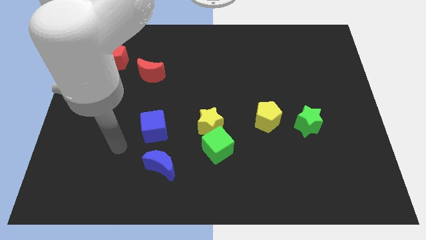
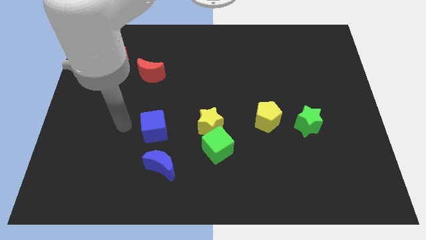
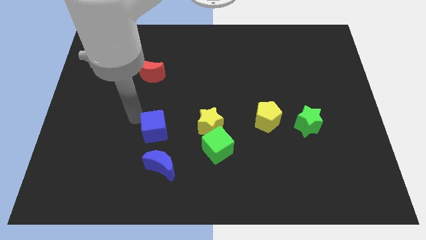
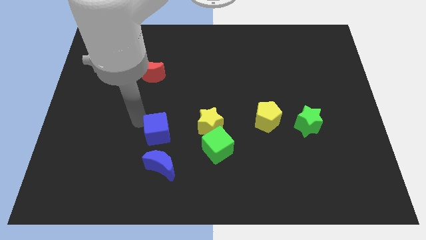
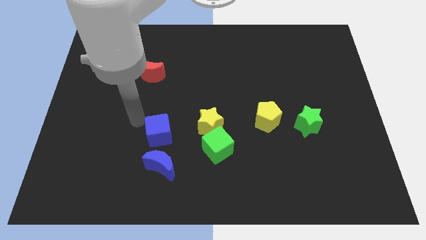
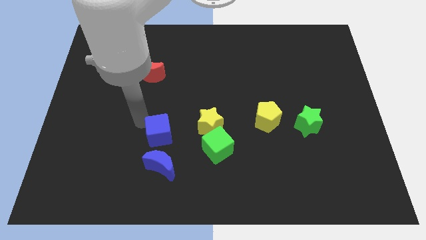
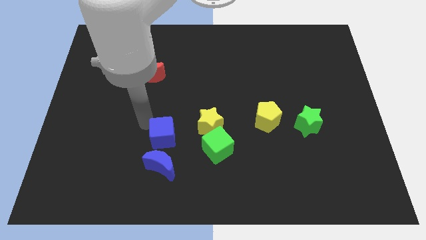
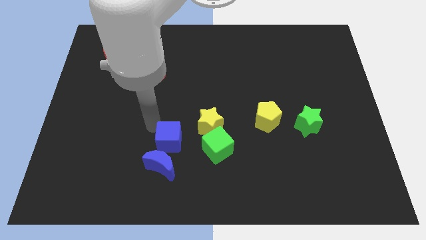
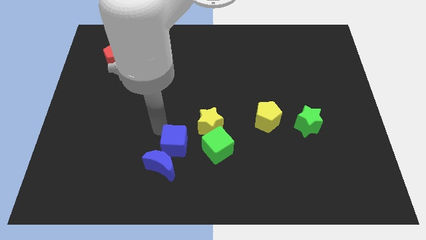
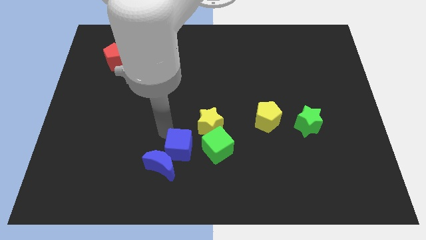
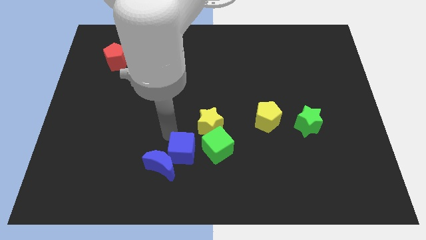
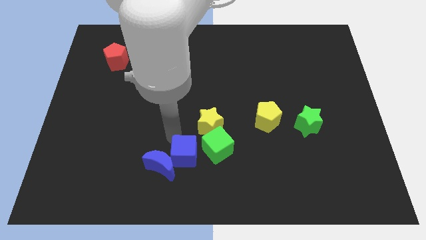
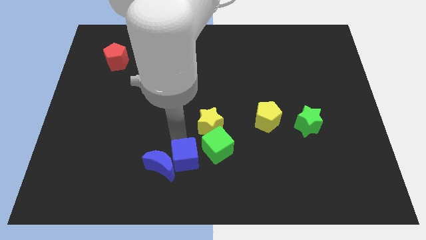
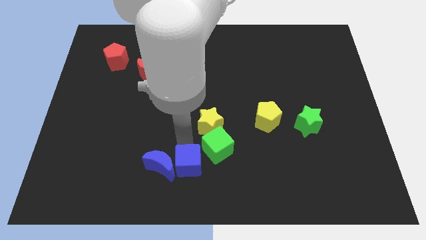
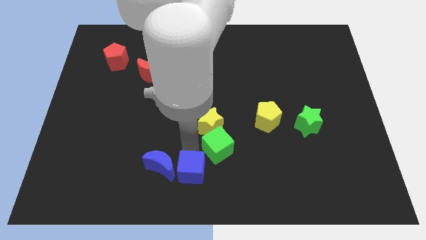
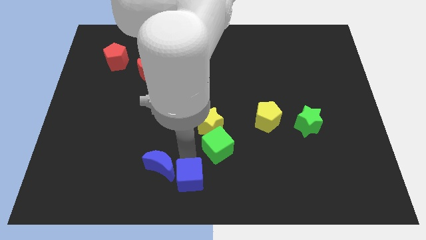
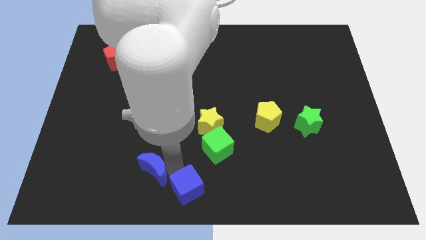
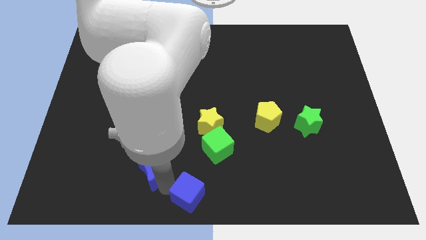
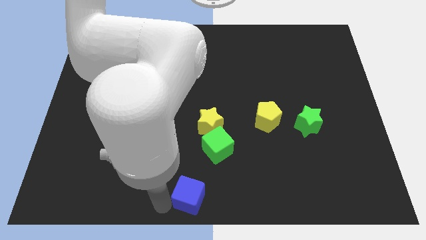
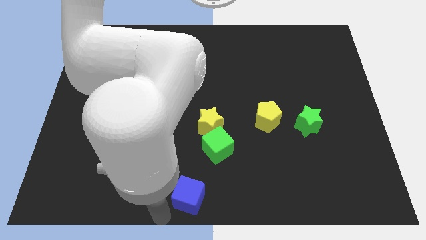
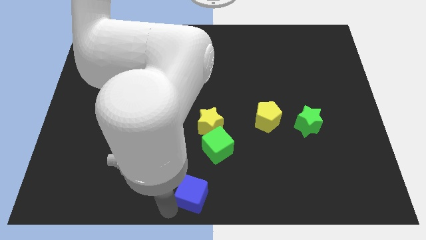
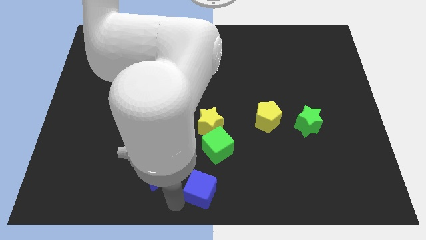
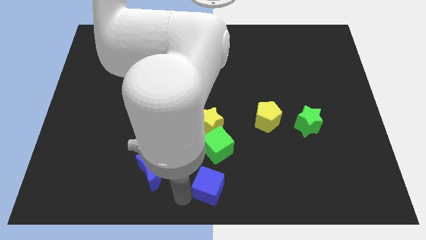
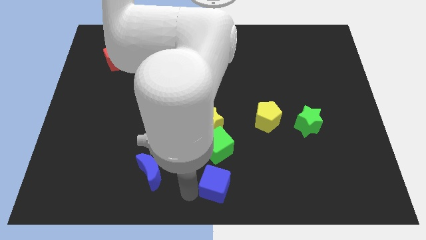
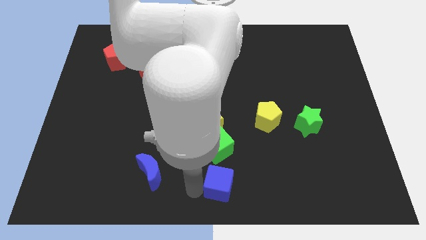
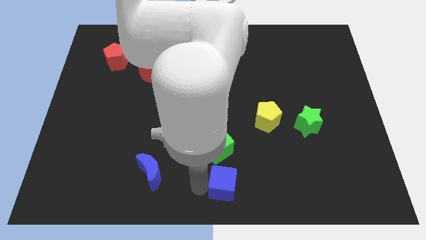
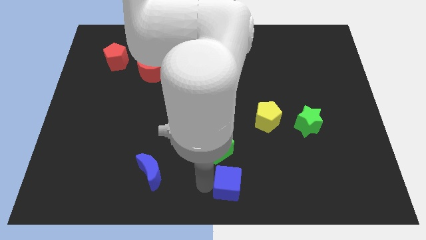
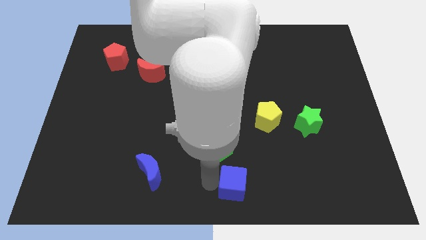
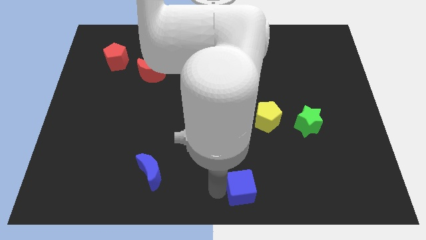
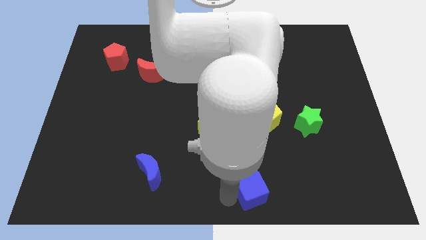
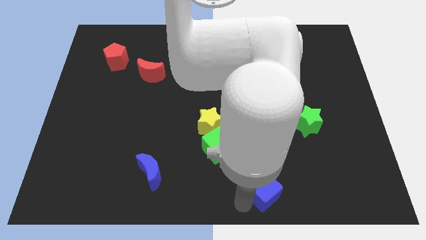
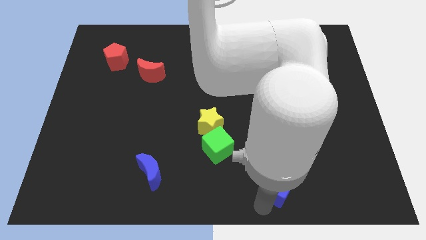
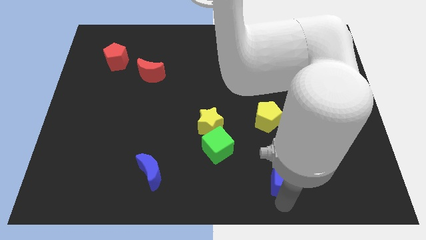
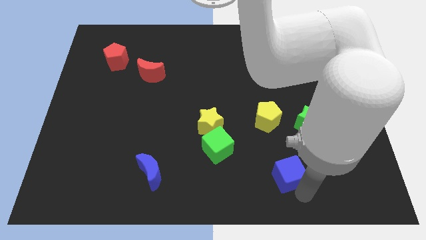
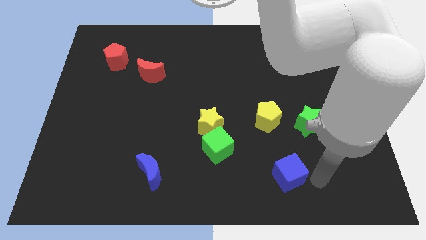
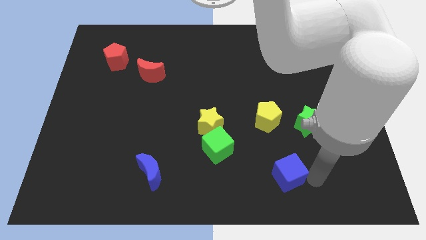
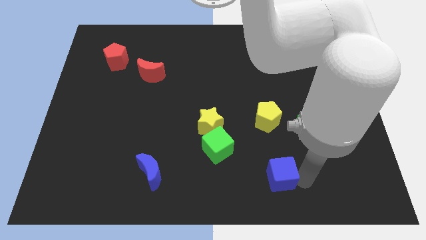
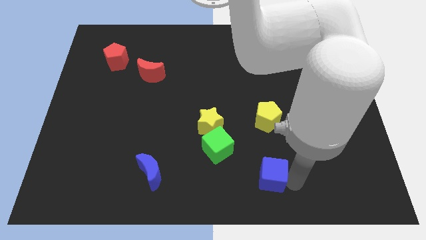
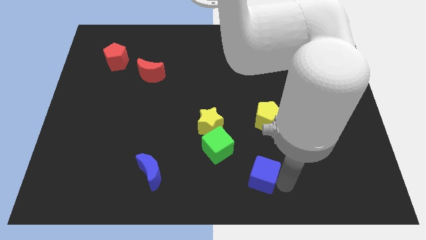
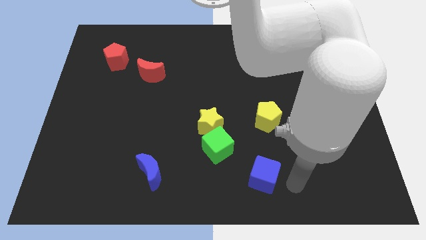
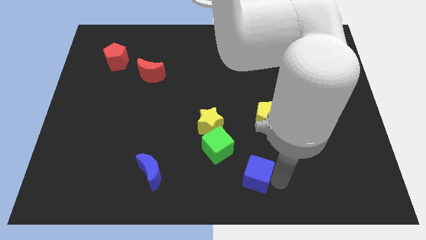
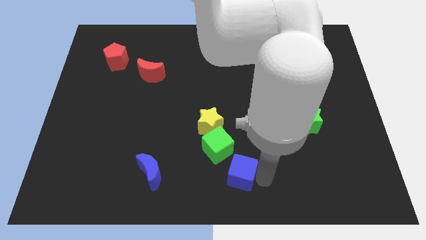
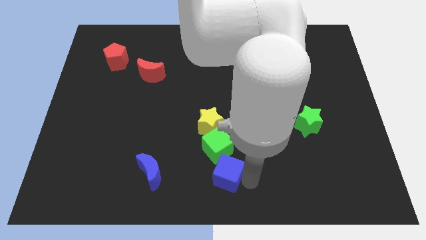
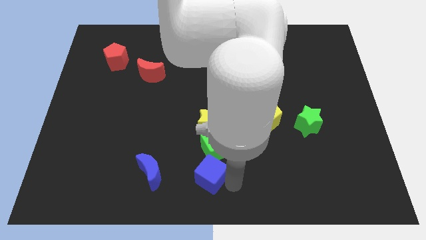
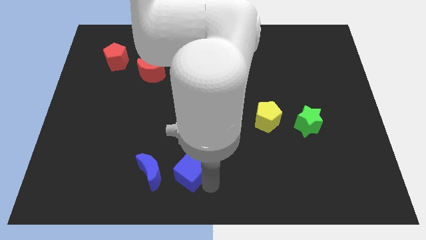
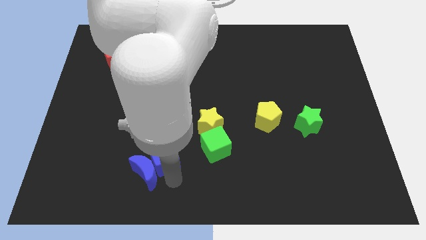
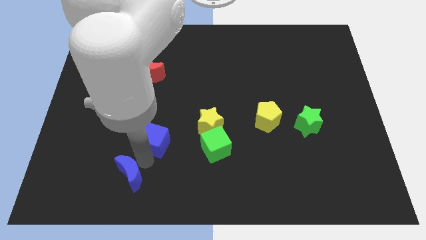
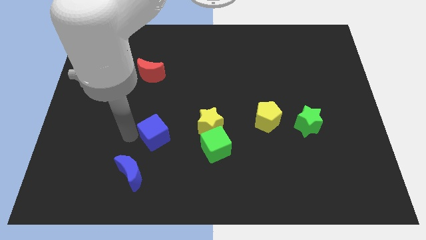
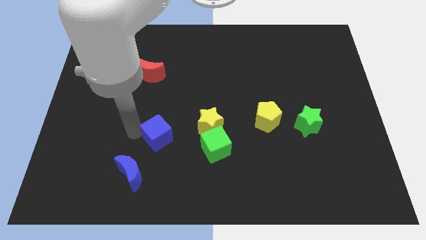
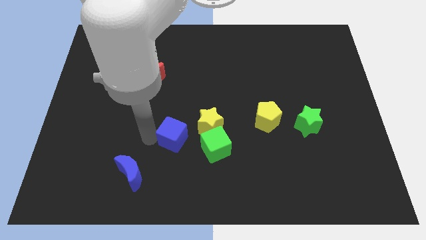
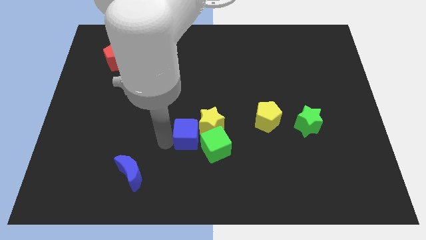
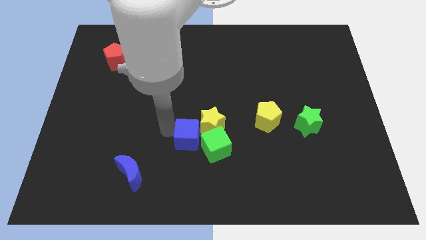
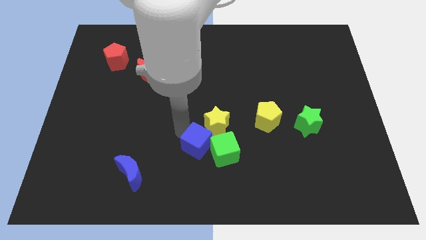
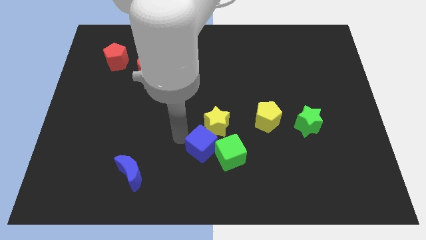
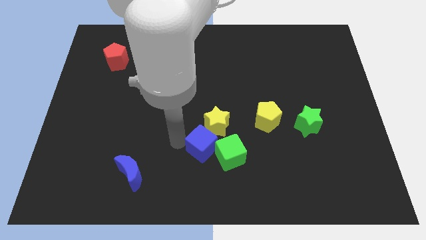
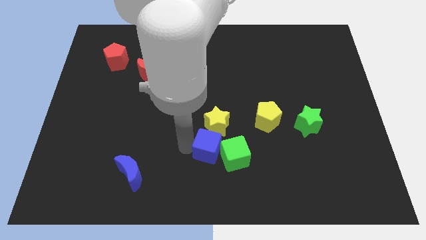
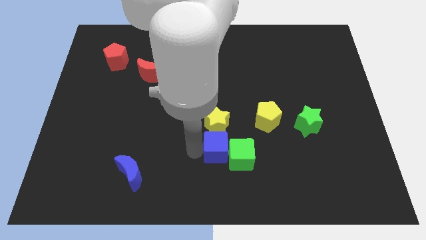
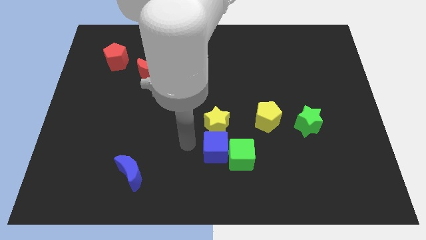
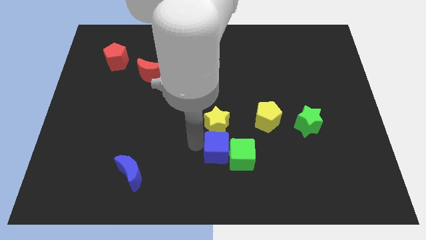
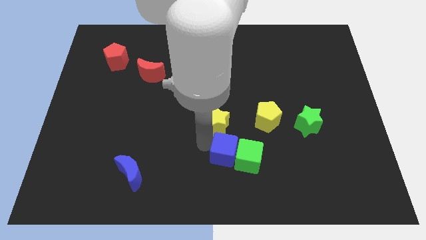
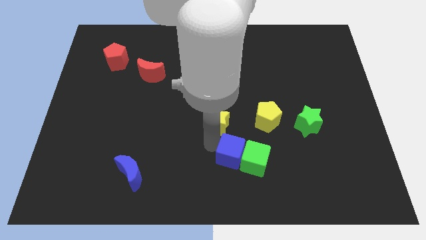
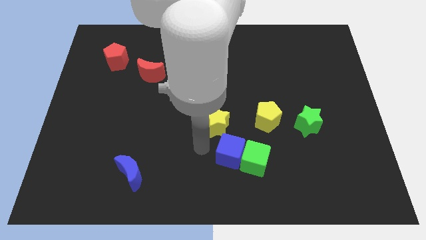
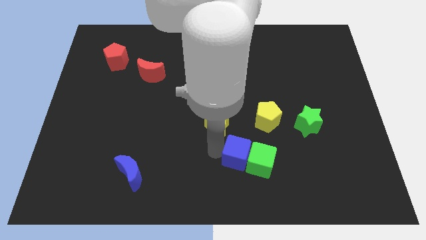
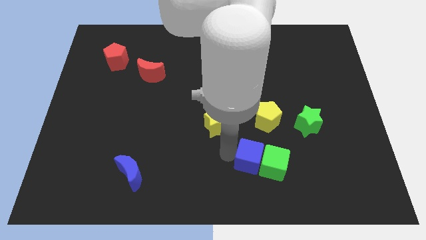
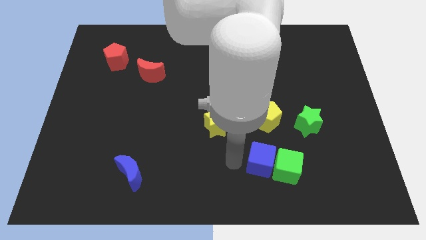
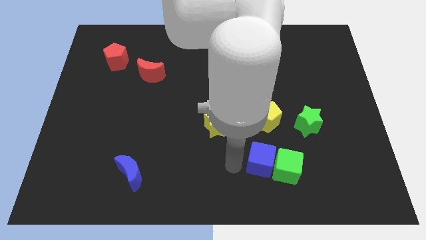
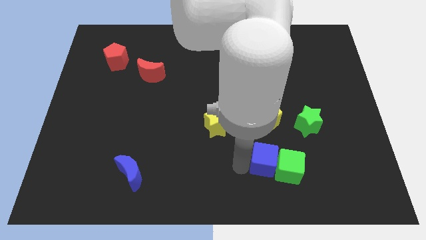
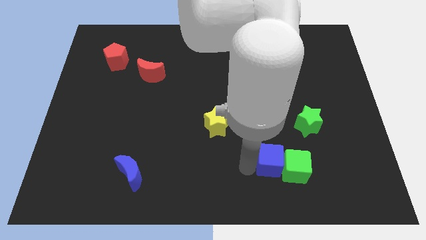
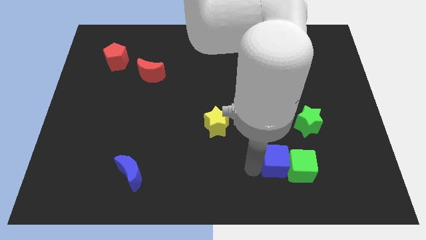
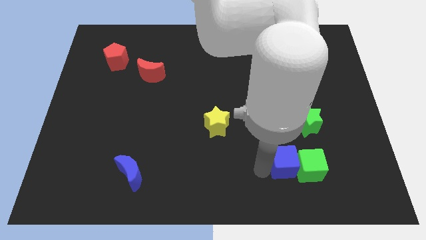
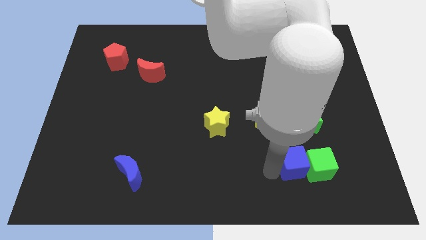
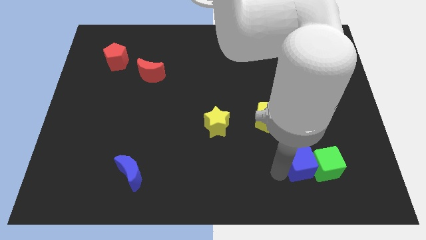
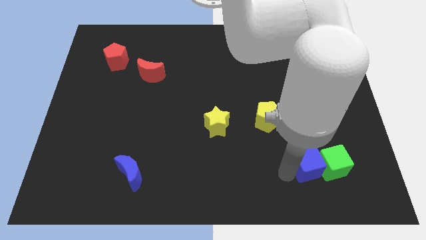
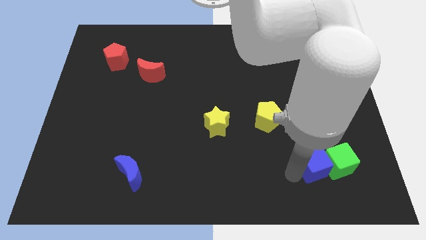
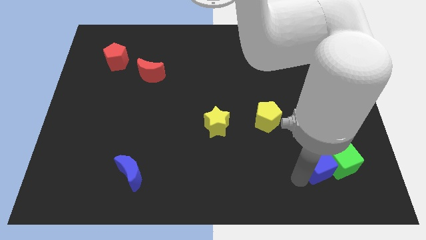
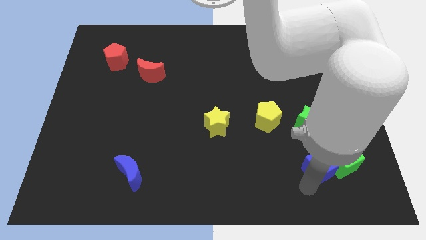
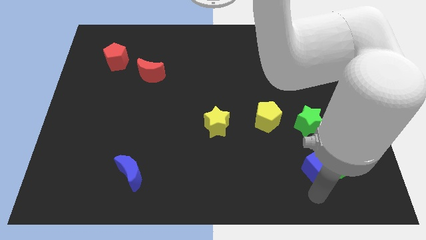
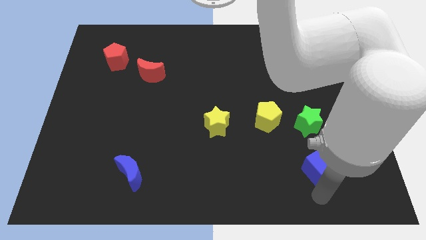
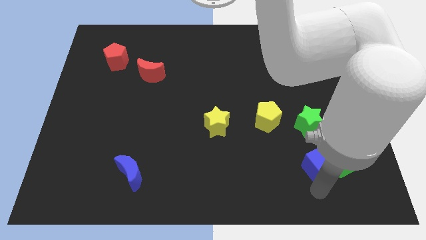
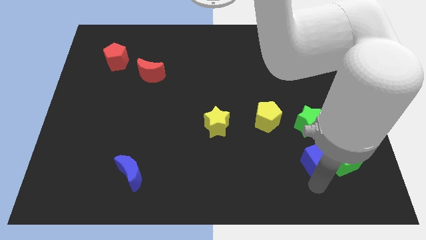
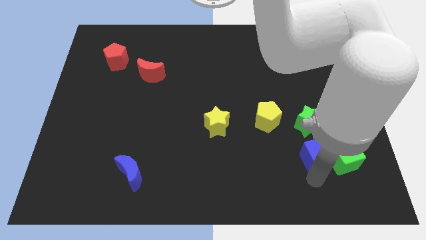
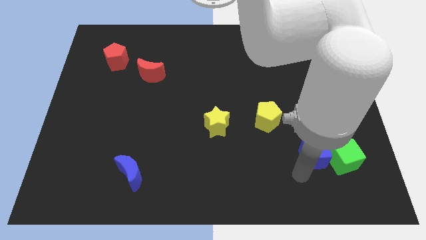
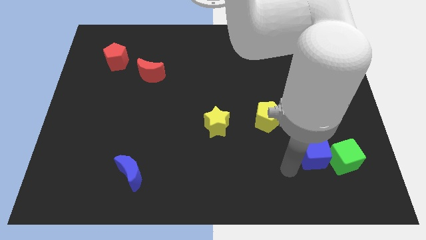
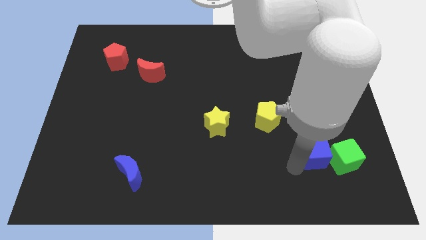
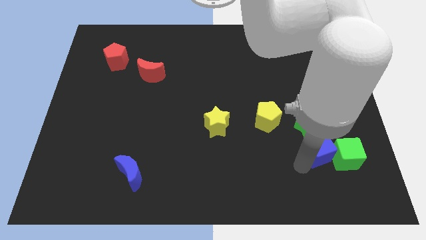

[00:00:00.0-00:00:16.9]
put the blue cube diagonally down and to the right of the green star
